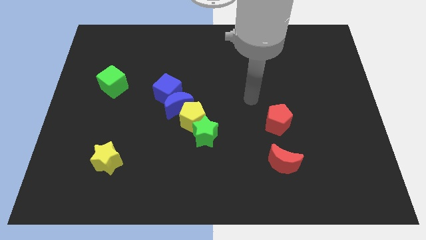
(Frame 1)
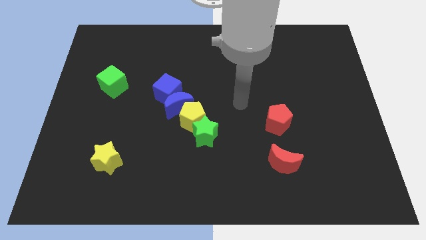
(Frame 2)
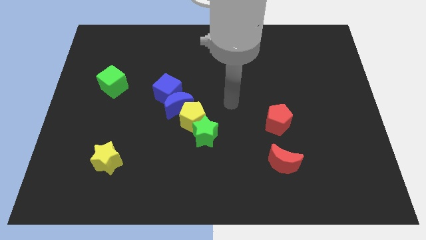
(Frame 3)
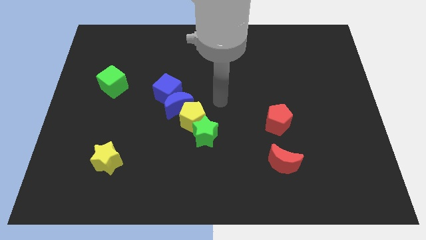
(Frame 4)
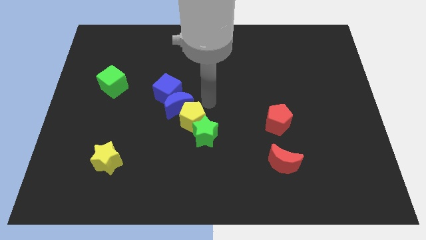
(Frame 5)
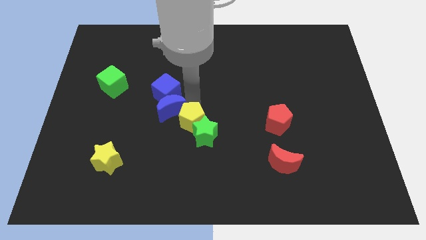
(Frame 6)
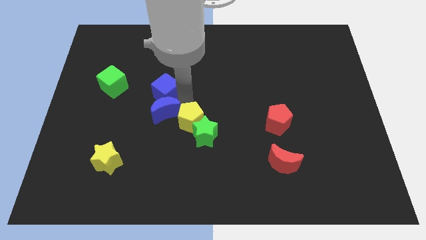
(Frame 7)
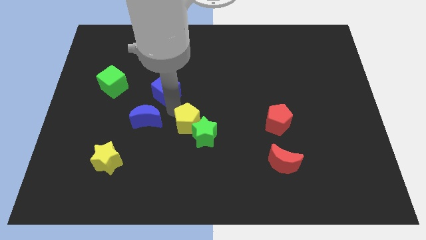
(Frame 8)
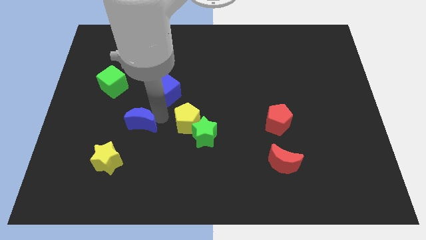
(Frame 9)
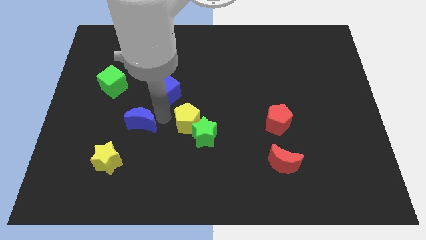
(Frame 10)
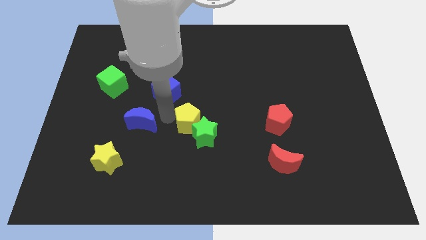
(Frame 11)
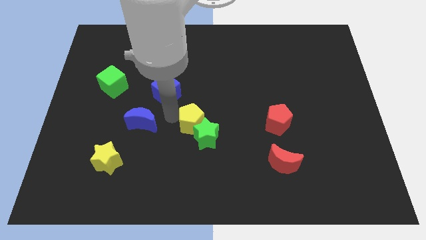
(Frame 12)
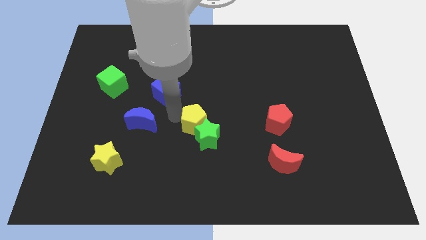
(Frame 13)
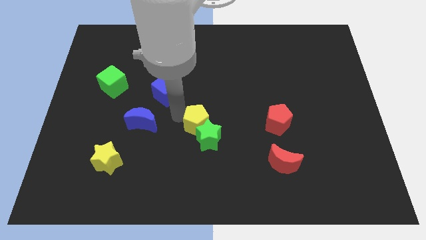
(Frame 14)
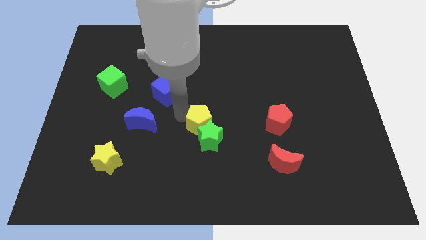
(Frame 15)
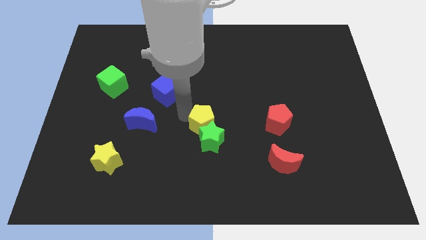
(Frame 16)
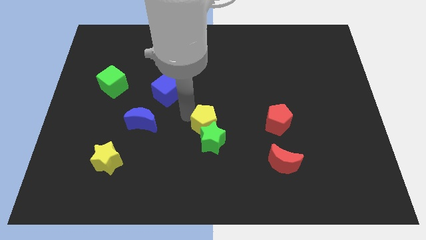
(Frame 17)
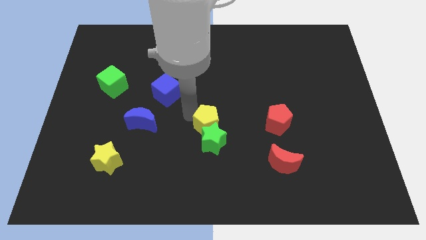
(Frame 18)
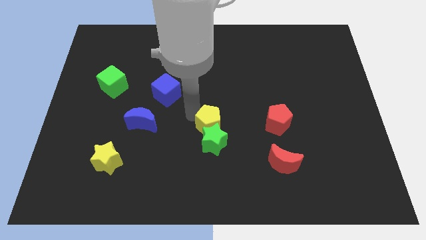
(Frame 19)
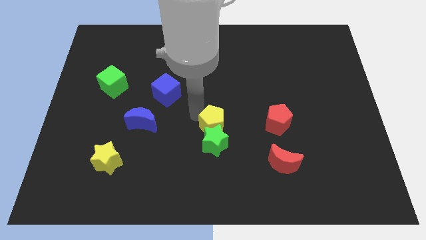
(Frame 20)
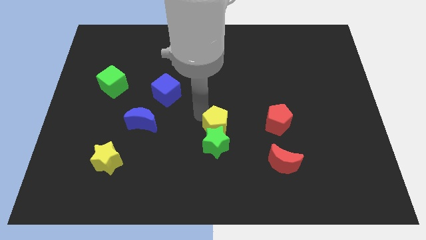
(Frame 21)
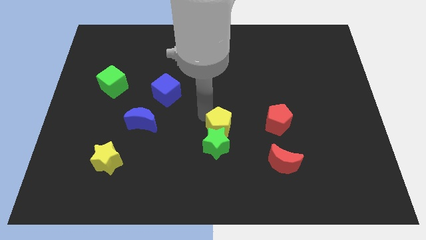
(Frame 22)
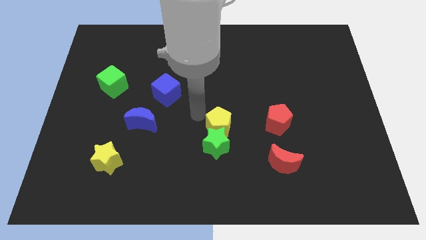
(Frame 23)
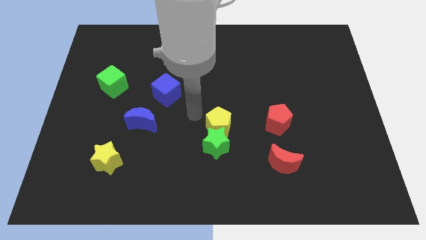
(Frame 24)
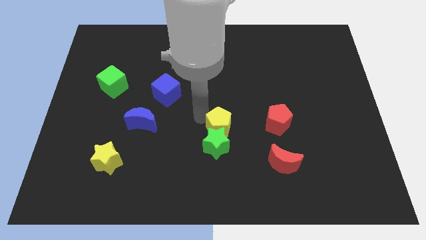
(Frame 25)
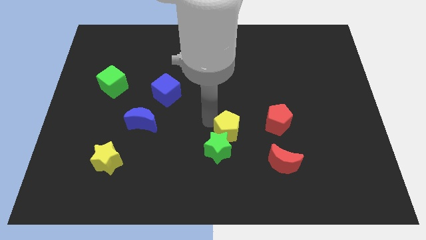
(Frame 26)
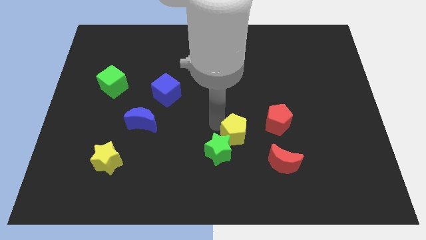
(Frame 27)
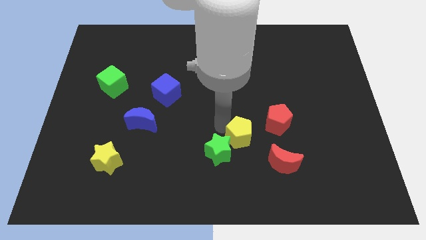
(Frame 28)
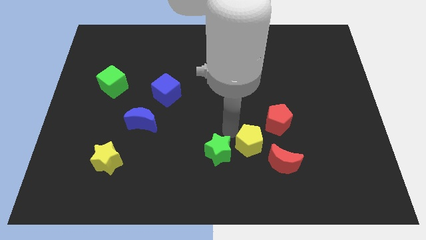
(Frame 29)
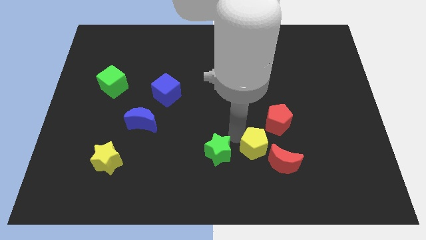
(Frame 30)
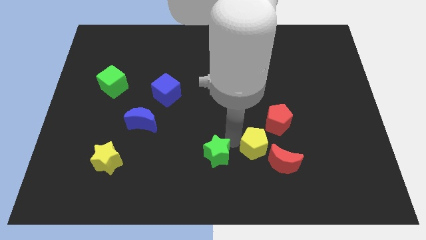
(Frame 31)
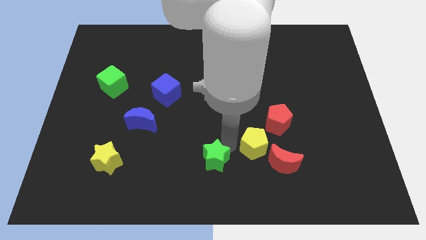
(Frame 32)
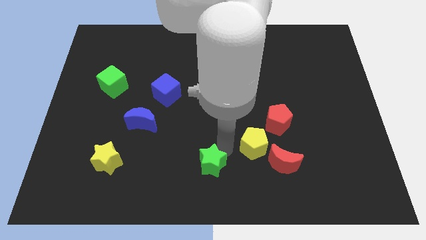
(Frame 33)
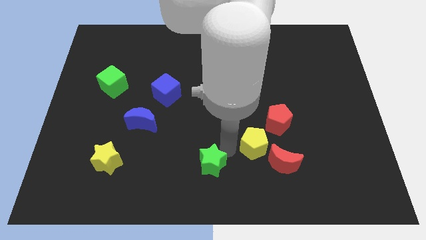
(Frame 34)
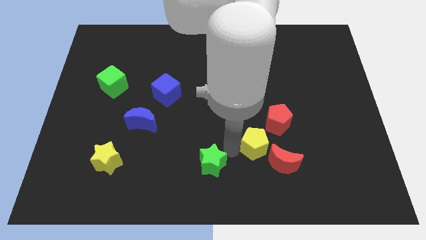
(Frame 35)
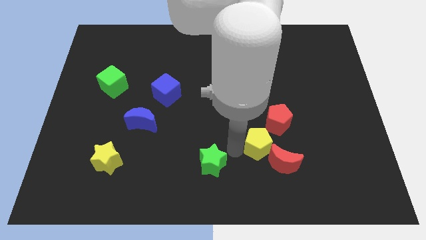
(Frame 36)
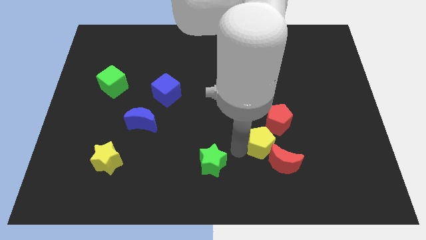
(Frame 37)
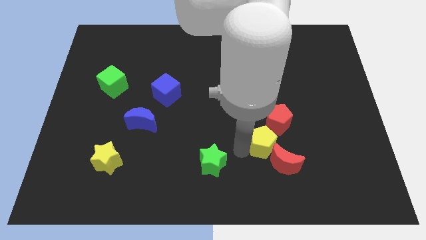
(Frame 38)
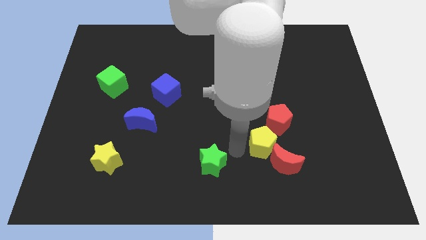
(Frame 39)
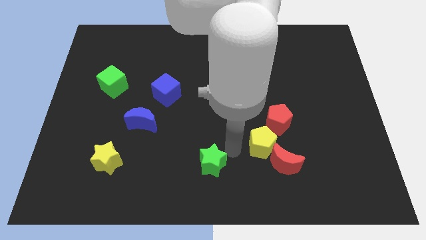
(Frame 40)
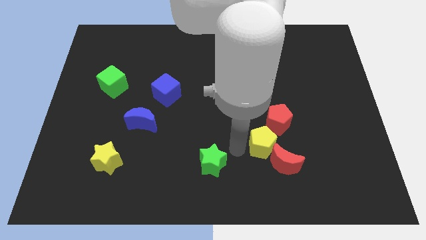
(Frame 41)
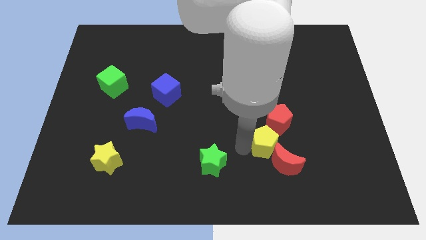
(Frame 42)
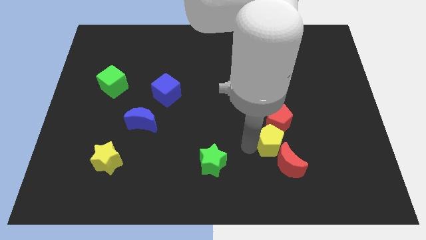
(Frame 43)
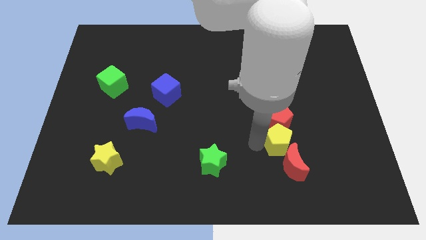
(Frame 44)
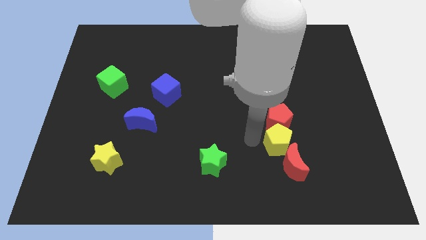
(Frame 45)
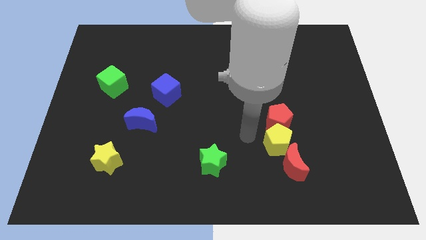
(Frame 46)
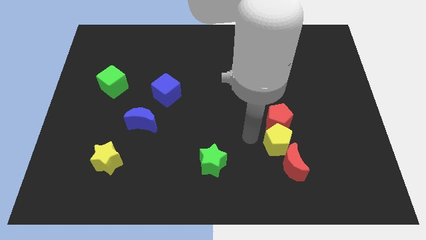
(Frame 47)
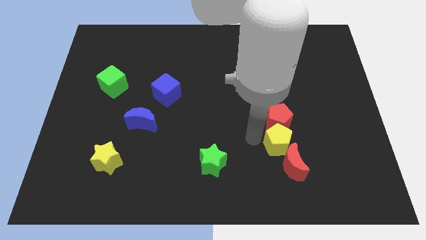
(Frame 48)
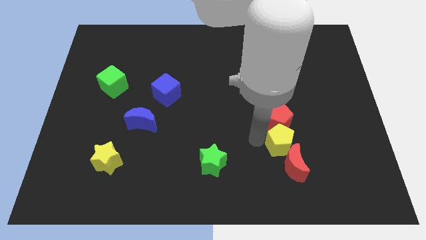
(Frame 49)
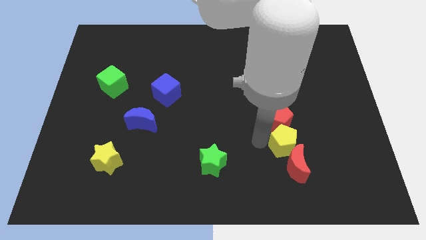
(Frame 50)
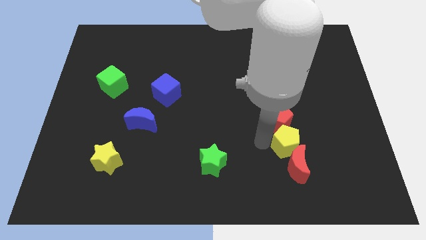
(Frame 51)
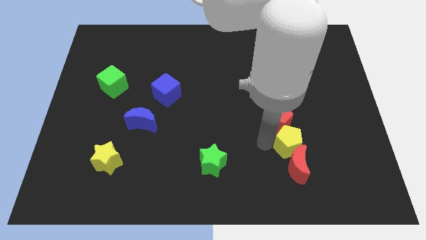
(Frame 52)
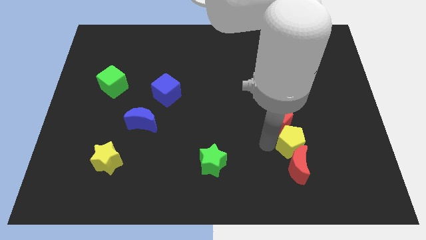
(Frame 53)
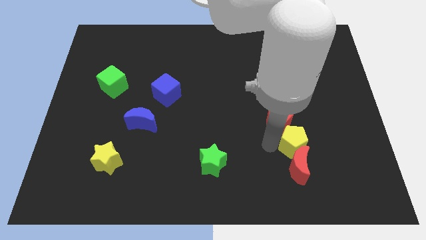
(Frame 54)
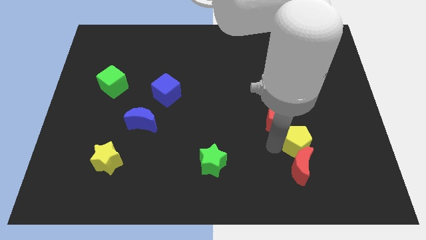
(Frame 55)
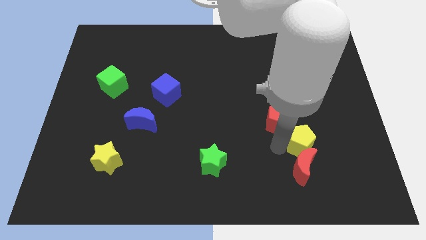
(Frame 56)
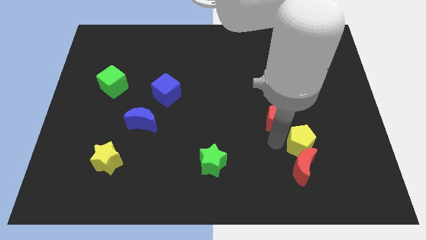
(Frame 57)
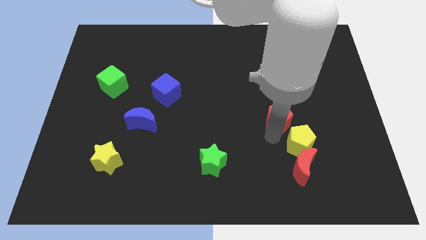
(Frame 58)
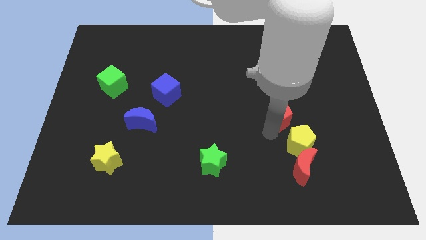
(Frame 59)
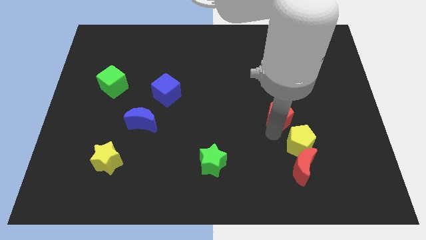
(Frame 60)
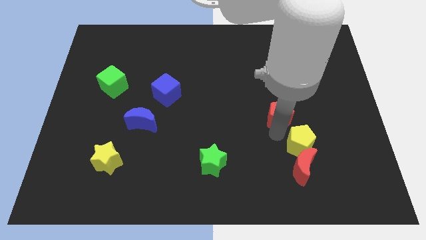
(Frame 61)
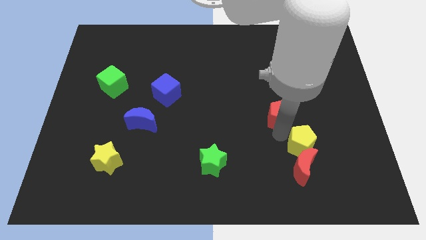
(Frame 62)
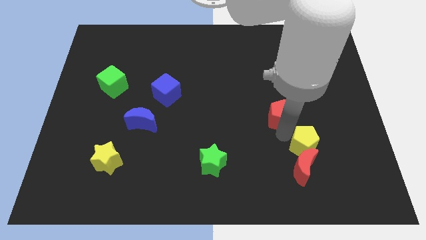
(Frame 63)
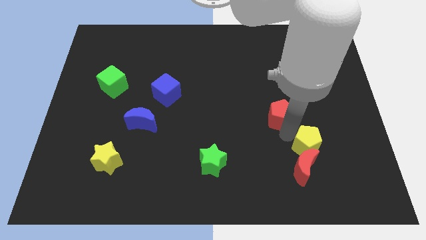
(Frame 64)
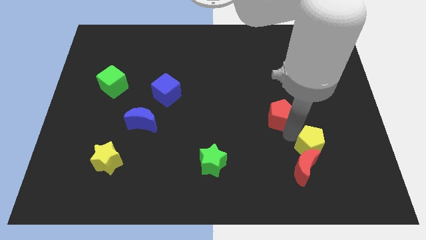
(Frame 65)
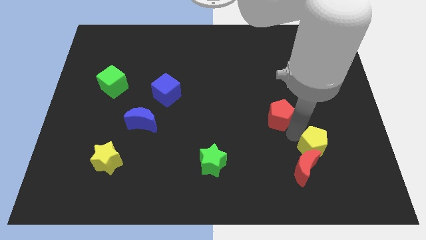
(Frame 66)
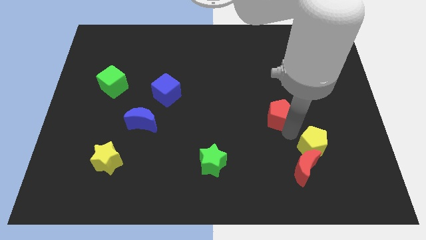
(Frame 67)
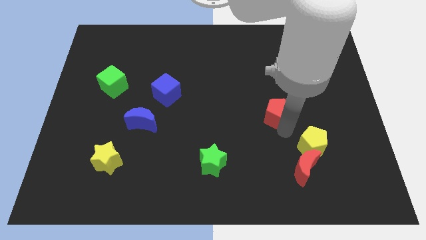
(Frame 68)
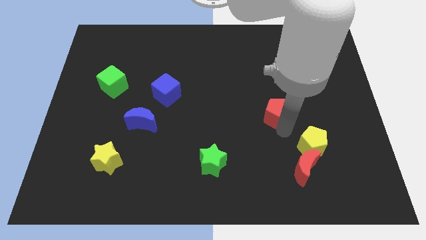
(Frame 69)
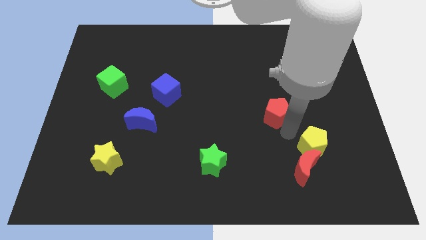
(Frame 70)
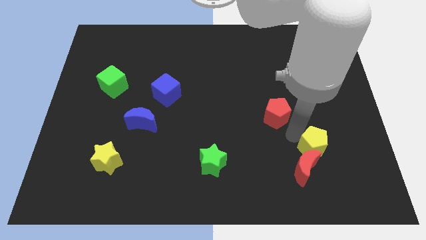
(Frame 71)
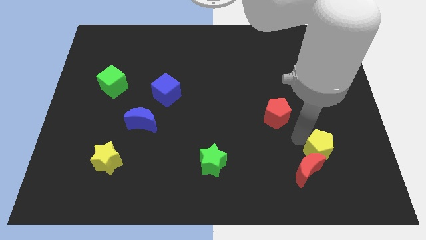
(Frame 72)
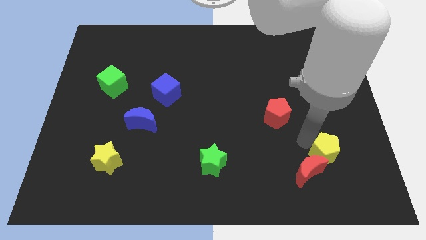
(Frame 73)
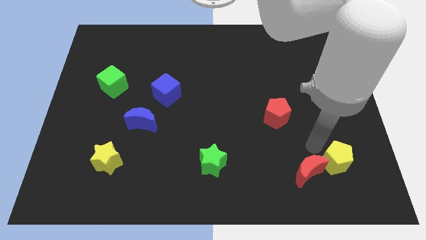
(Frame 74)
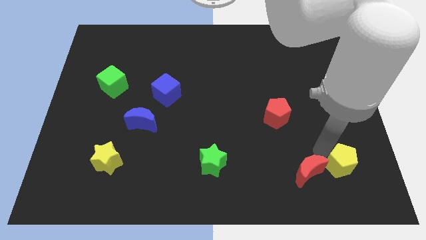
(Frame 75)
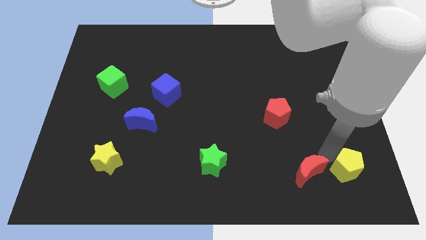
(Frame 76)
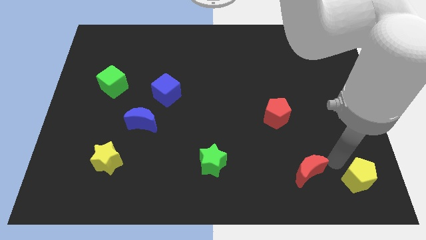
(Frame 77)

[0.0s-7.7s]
move the yellow pentagon to the lower right corner
